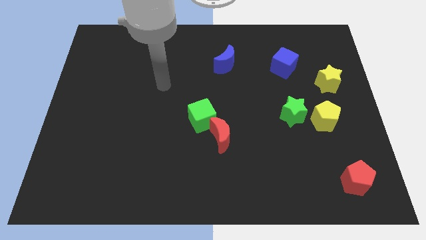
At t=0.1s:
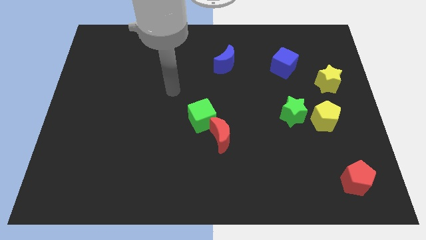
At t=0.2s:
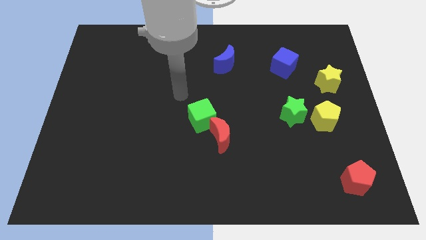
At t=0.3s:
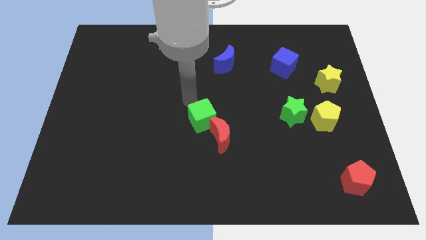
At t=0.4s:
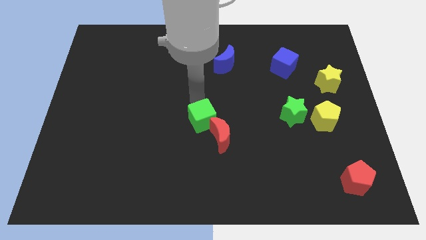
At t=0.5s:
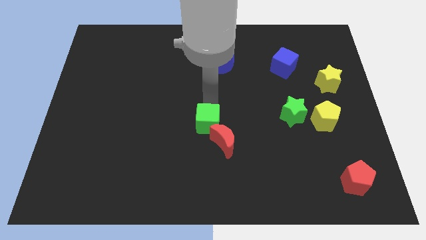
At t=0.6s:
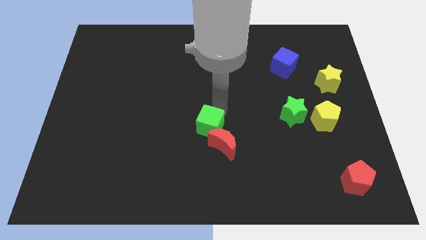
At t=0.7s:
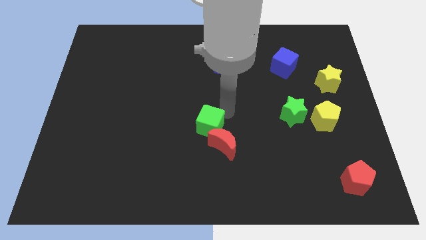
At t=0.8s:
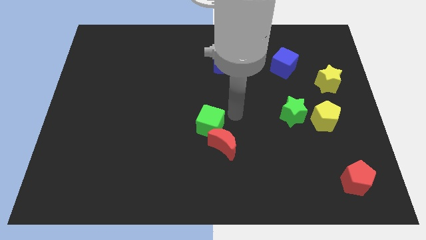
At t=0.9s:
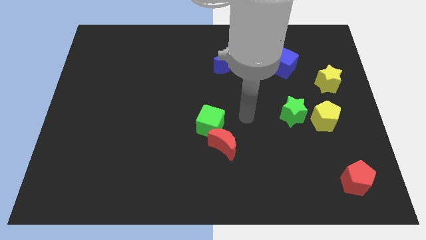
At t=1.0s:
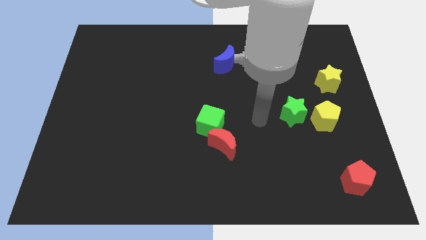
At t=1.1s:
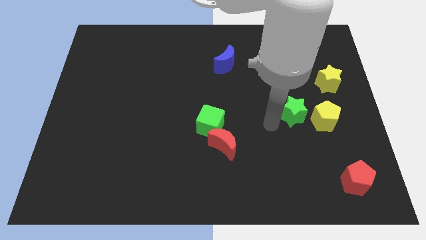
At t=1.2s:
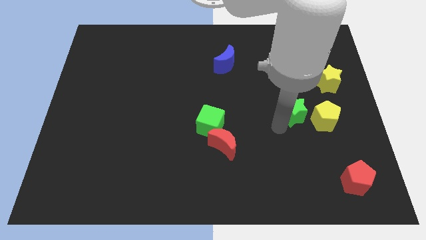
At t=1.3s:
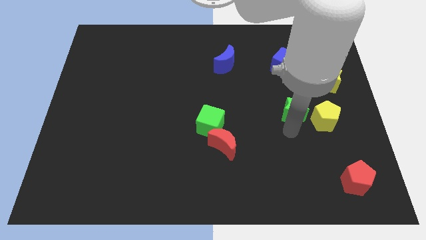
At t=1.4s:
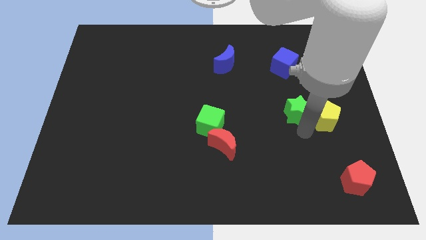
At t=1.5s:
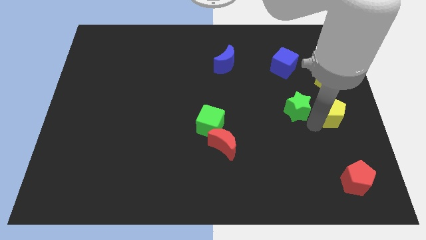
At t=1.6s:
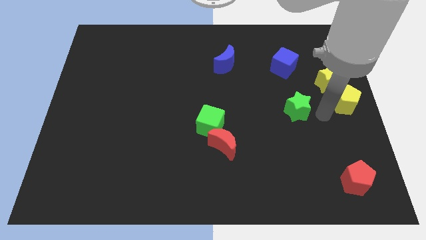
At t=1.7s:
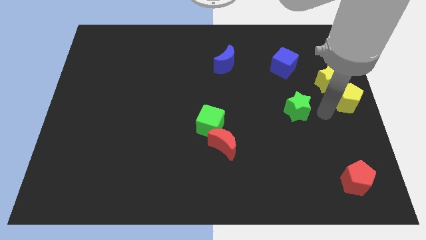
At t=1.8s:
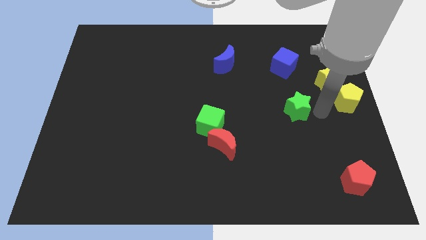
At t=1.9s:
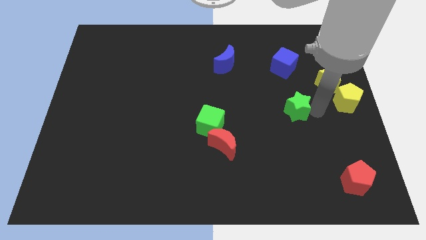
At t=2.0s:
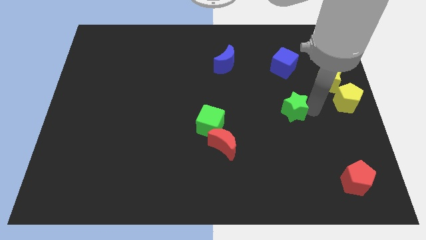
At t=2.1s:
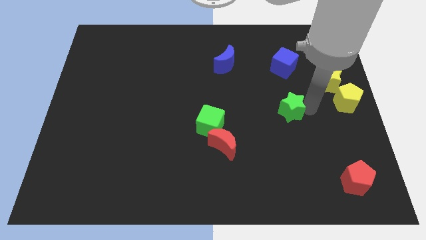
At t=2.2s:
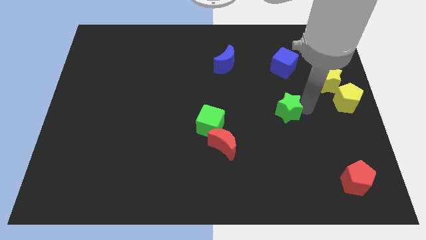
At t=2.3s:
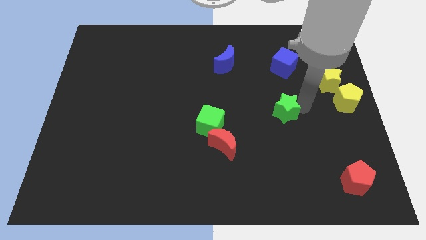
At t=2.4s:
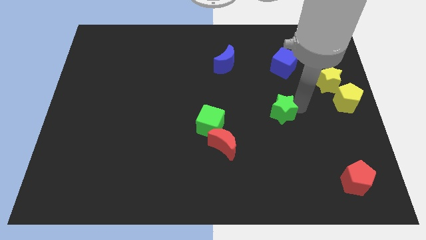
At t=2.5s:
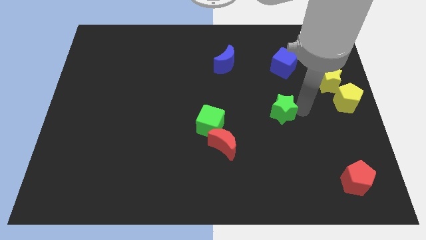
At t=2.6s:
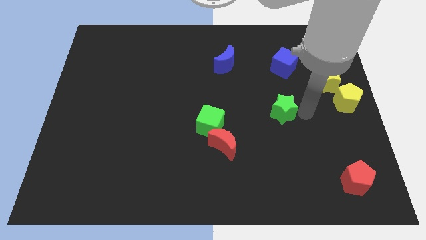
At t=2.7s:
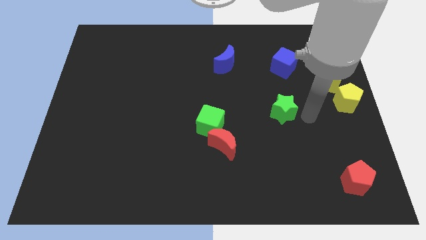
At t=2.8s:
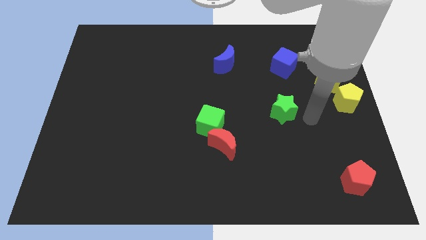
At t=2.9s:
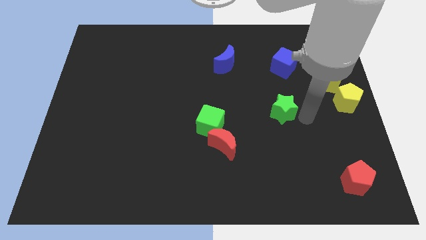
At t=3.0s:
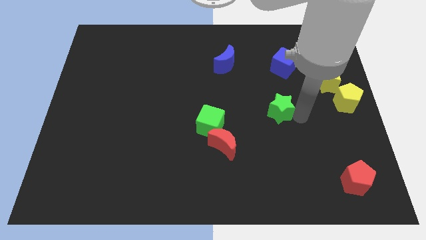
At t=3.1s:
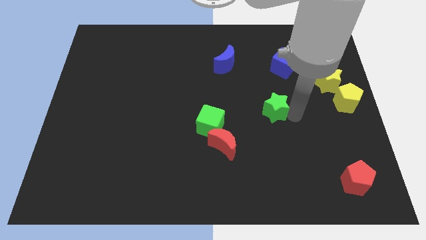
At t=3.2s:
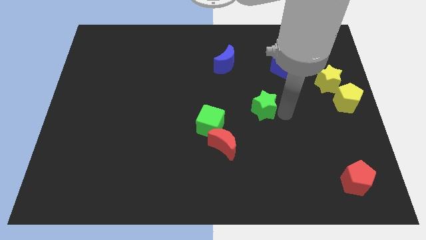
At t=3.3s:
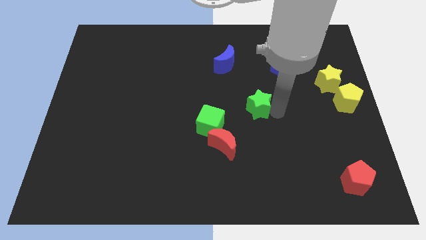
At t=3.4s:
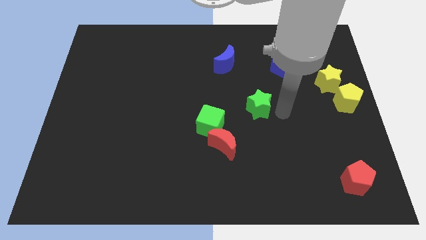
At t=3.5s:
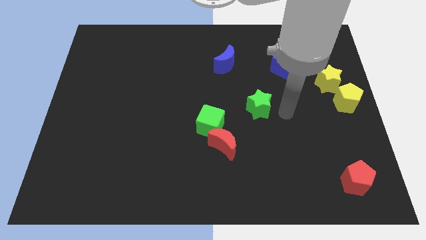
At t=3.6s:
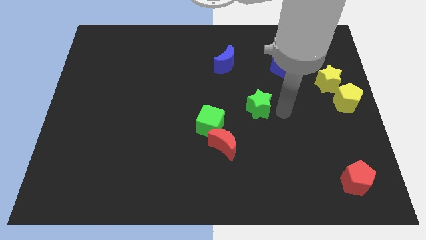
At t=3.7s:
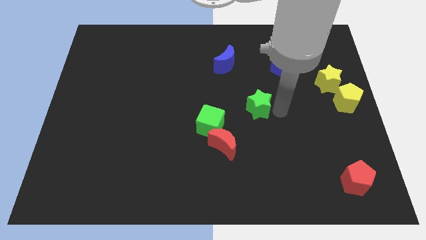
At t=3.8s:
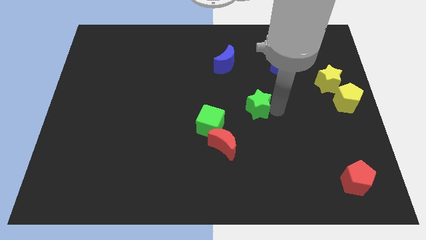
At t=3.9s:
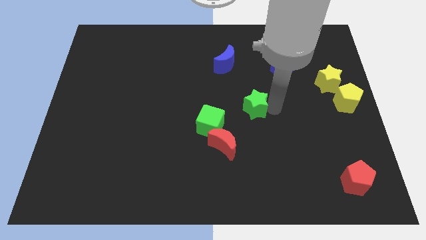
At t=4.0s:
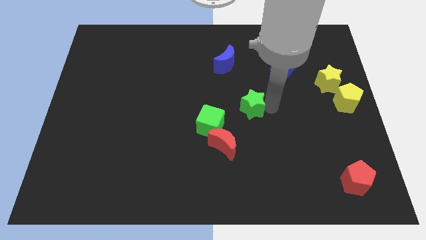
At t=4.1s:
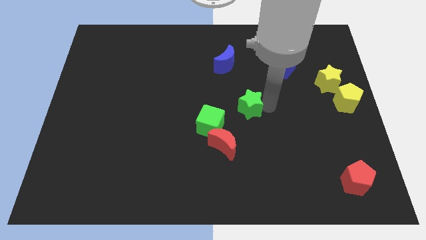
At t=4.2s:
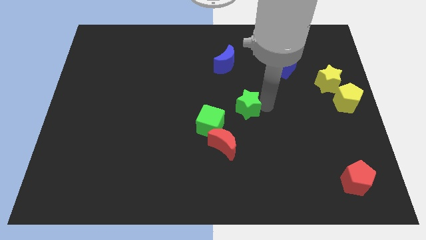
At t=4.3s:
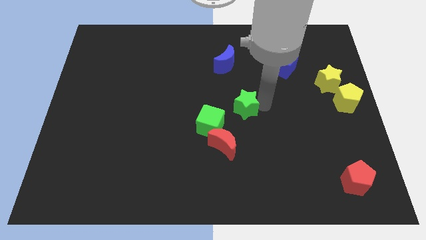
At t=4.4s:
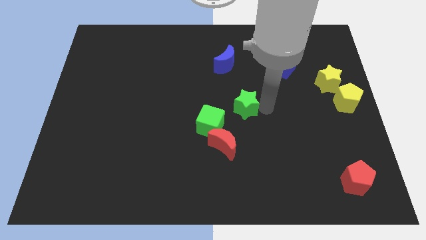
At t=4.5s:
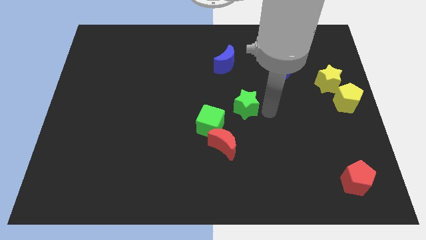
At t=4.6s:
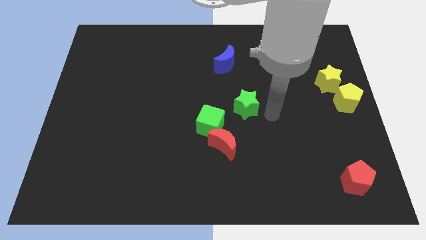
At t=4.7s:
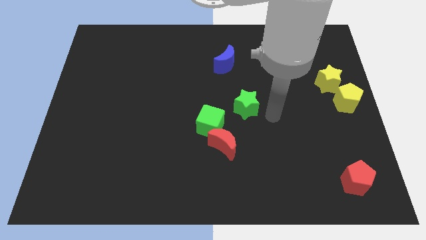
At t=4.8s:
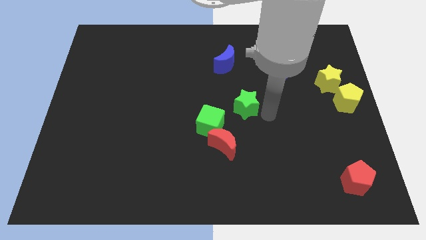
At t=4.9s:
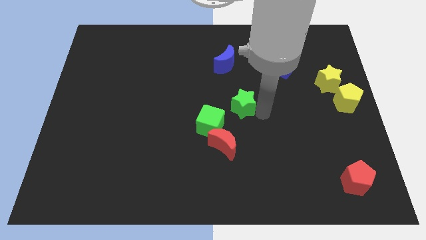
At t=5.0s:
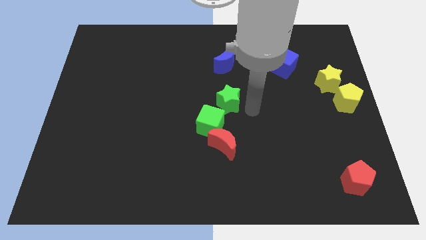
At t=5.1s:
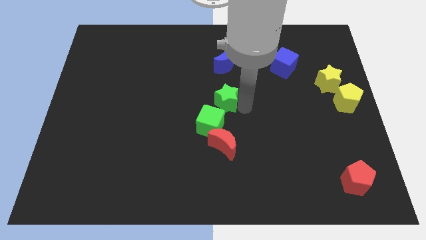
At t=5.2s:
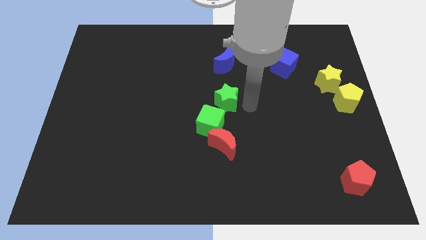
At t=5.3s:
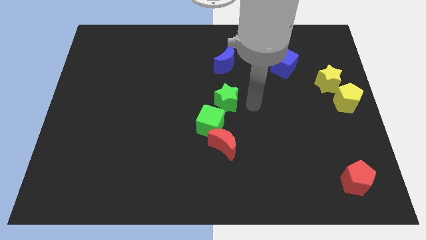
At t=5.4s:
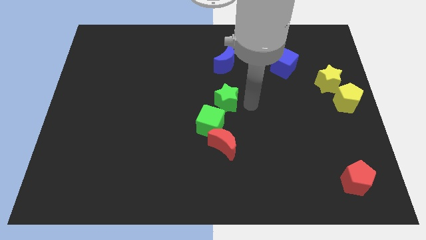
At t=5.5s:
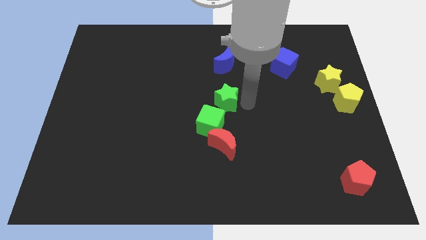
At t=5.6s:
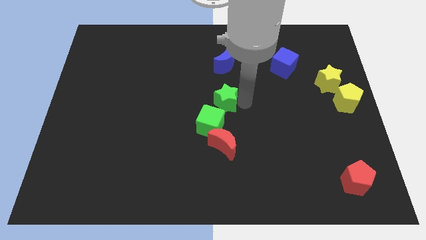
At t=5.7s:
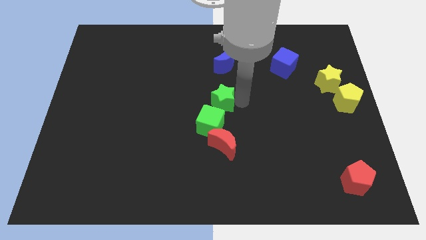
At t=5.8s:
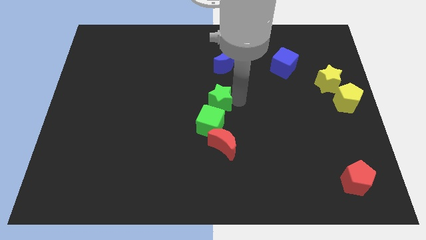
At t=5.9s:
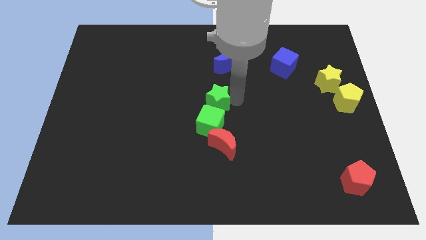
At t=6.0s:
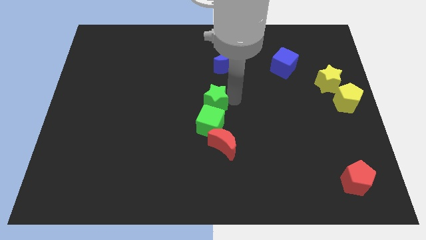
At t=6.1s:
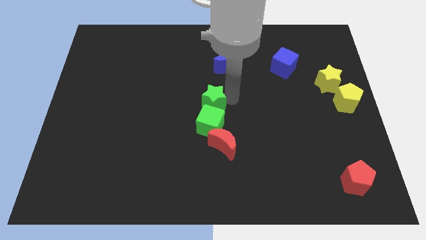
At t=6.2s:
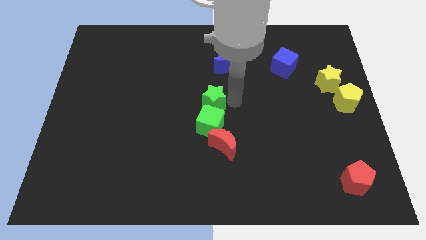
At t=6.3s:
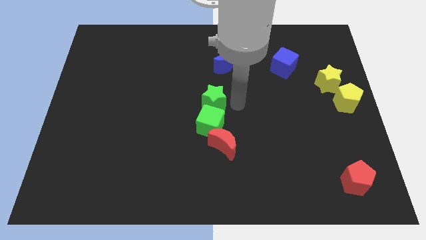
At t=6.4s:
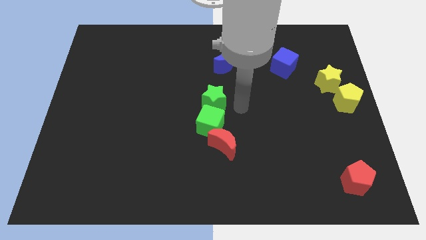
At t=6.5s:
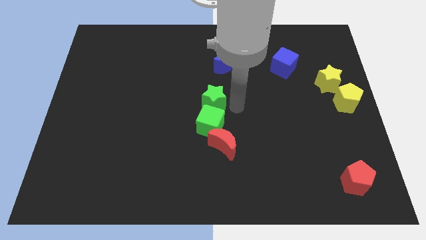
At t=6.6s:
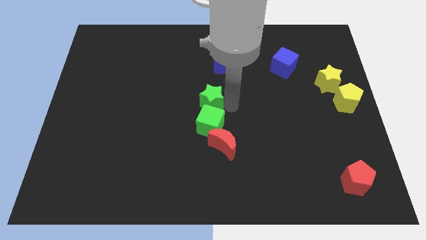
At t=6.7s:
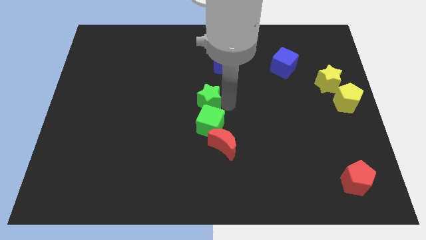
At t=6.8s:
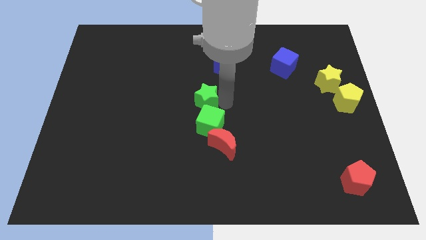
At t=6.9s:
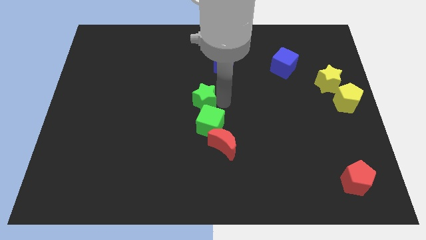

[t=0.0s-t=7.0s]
move the green star to the left

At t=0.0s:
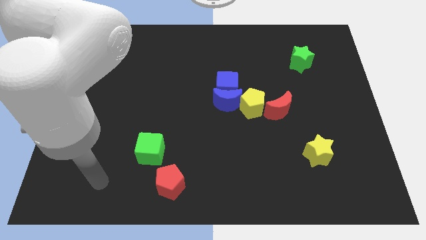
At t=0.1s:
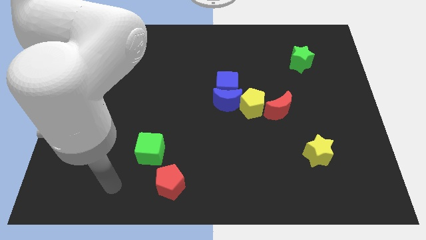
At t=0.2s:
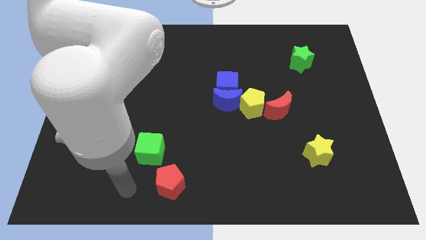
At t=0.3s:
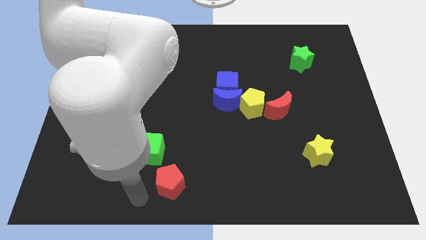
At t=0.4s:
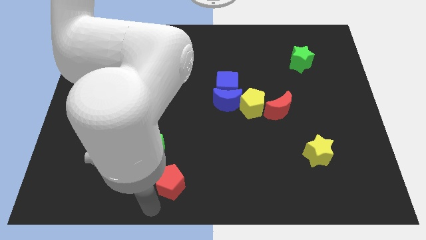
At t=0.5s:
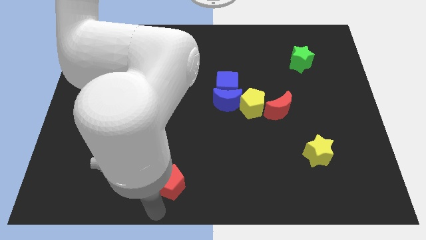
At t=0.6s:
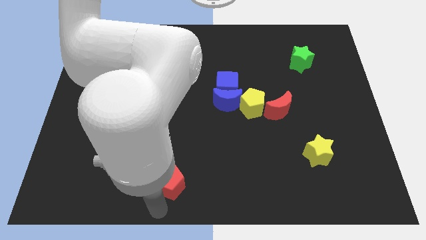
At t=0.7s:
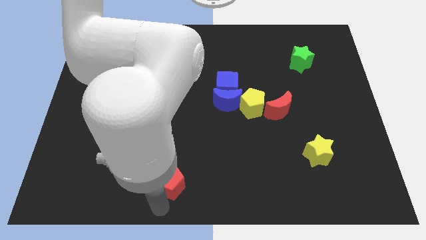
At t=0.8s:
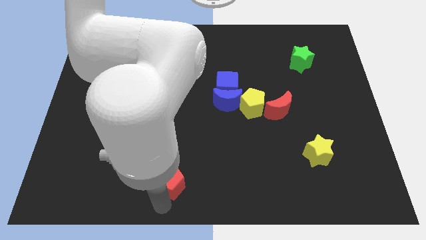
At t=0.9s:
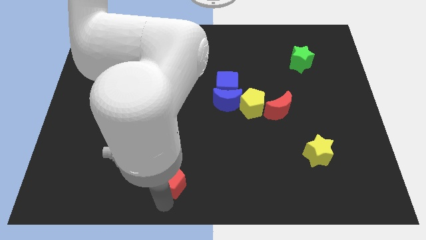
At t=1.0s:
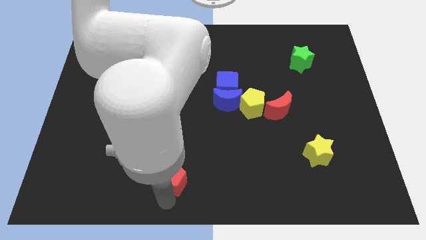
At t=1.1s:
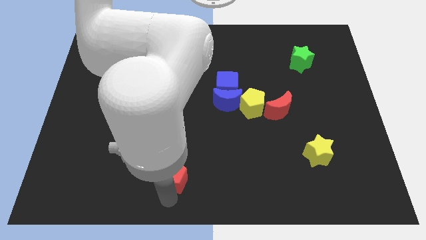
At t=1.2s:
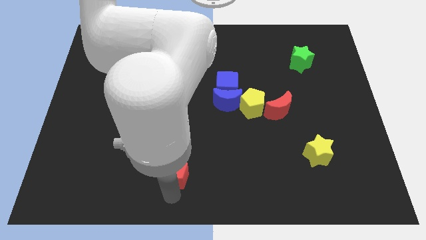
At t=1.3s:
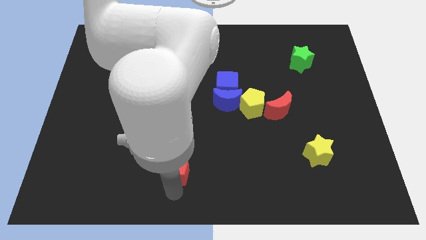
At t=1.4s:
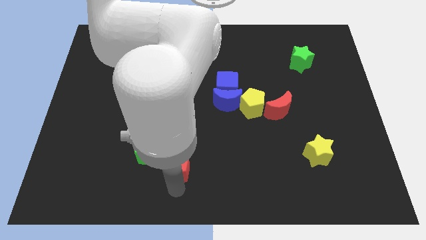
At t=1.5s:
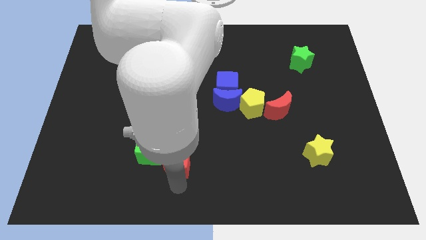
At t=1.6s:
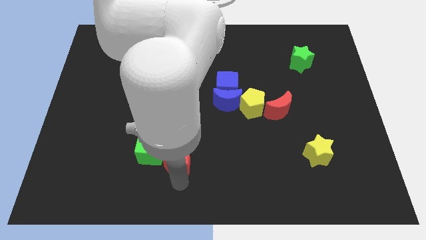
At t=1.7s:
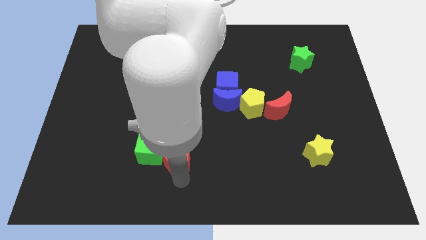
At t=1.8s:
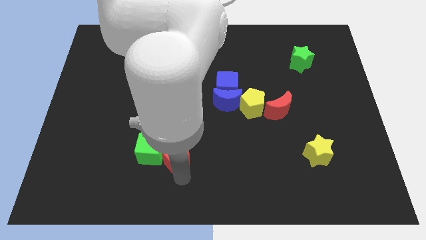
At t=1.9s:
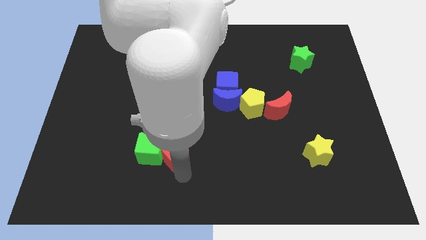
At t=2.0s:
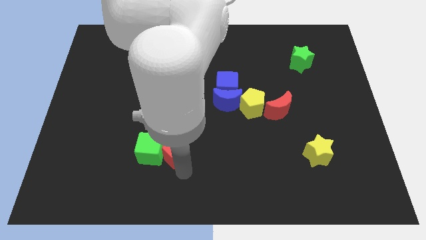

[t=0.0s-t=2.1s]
slide the red pentagon somewhat up
